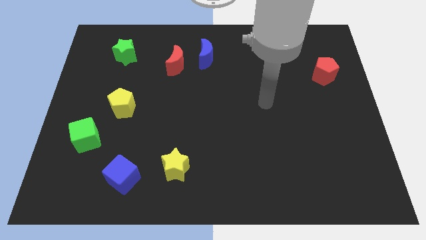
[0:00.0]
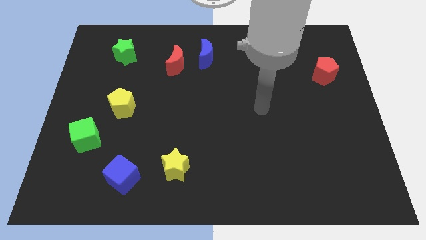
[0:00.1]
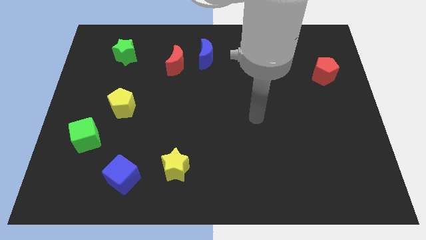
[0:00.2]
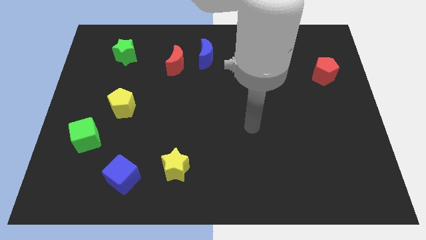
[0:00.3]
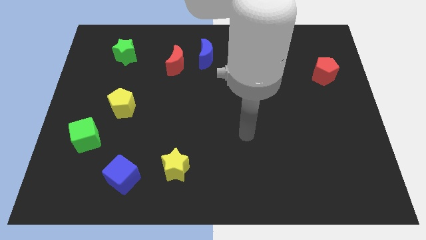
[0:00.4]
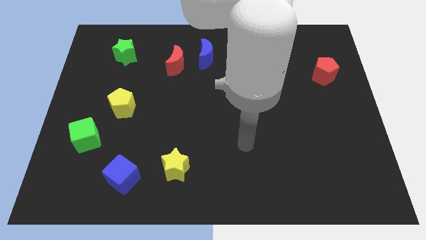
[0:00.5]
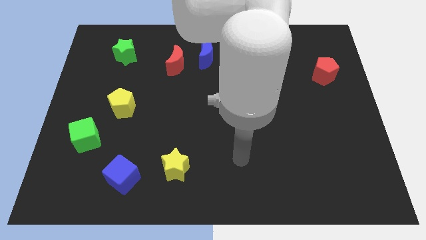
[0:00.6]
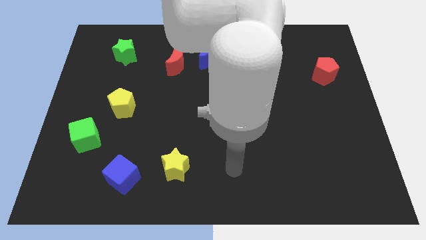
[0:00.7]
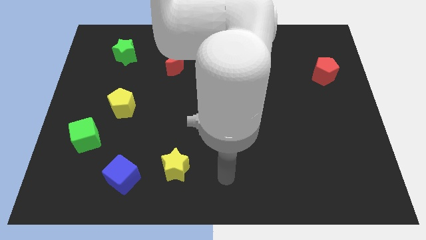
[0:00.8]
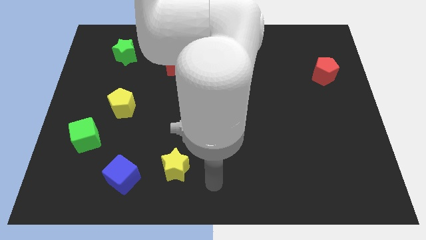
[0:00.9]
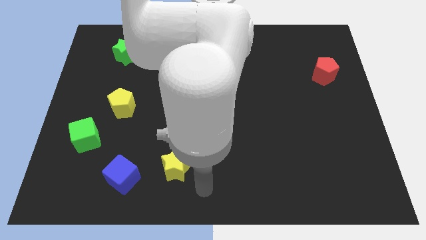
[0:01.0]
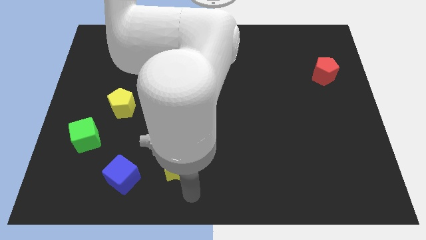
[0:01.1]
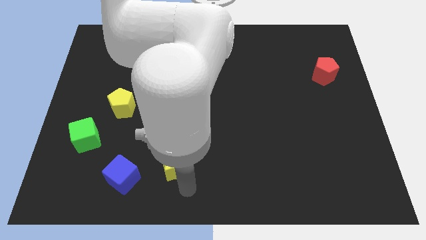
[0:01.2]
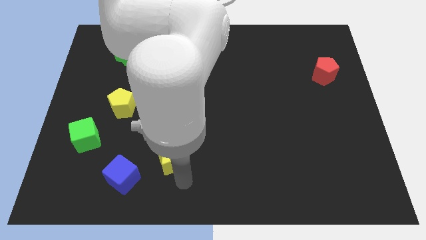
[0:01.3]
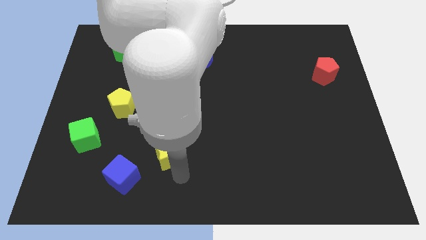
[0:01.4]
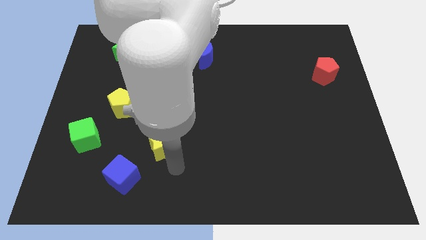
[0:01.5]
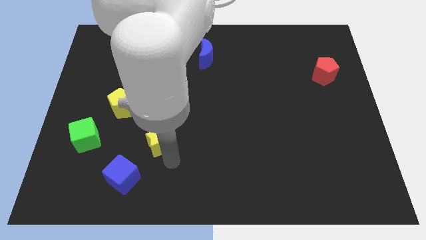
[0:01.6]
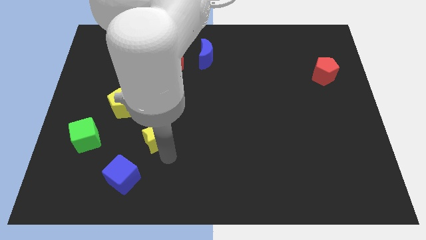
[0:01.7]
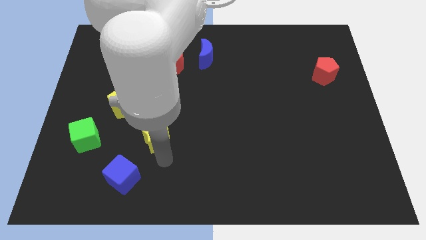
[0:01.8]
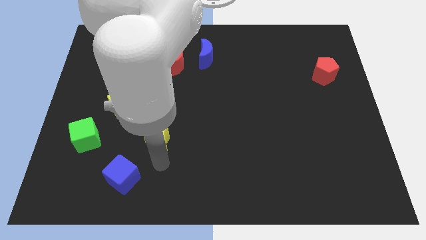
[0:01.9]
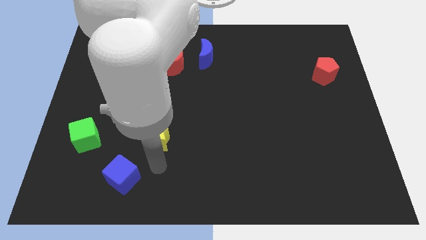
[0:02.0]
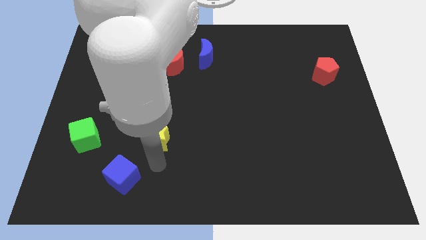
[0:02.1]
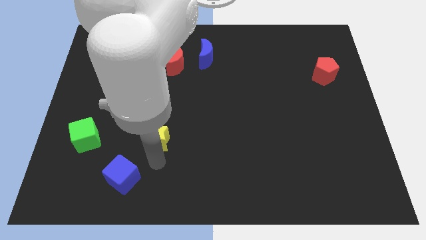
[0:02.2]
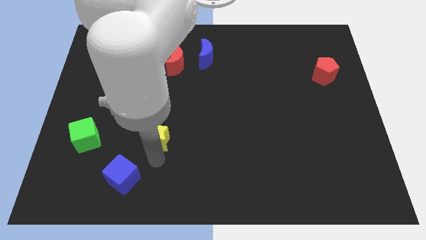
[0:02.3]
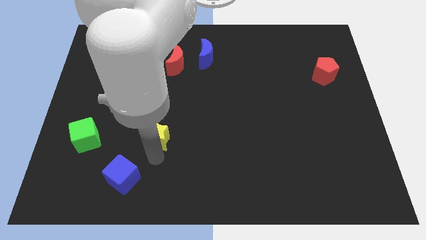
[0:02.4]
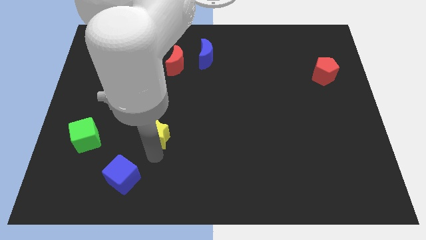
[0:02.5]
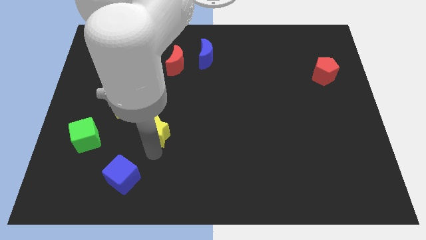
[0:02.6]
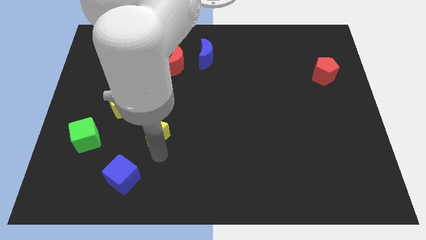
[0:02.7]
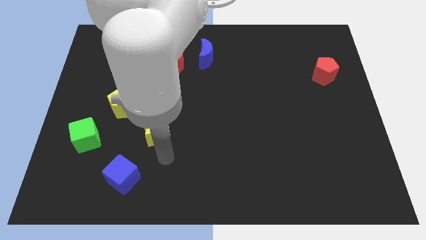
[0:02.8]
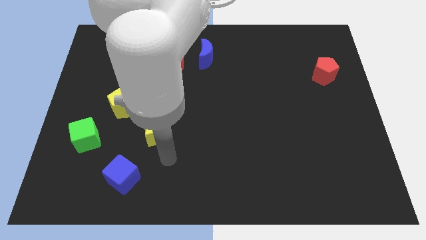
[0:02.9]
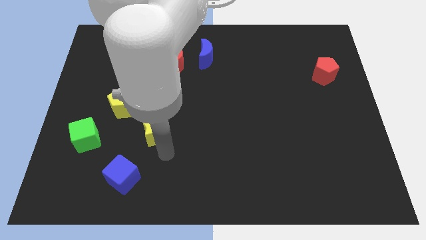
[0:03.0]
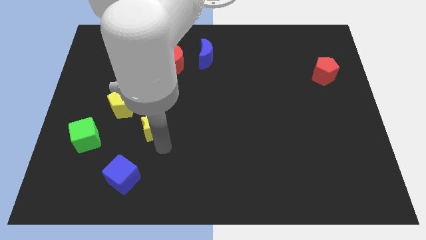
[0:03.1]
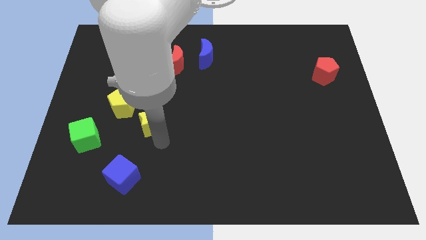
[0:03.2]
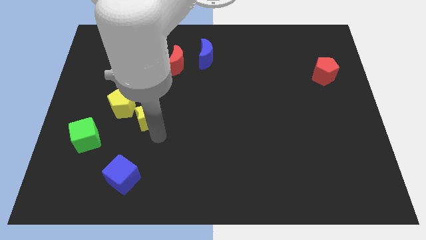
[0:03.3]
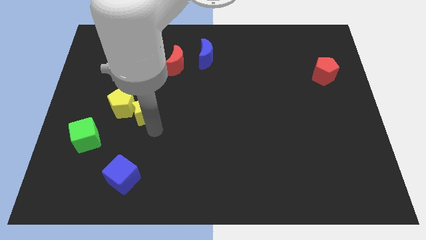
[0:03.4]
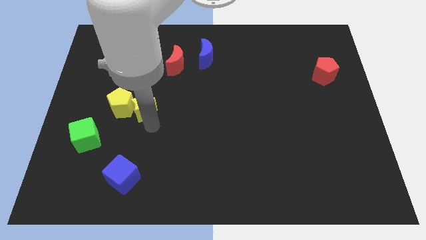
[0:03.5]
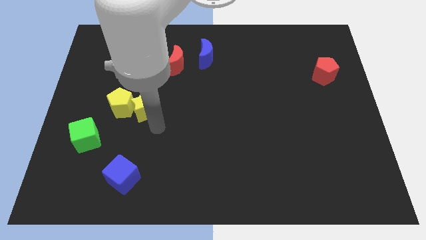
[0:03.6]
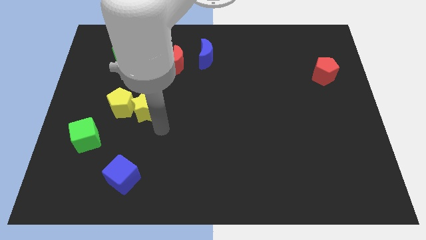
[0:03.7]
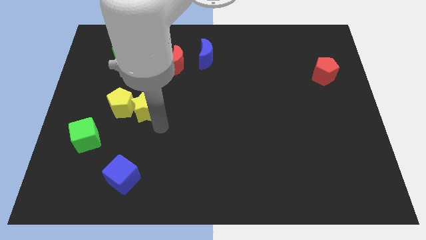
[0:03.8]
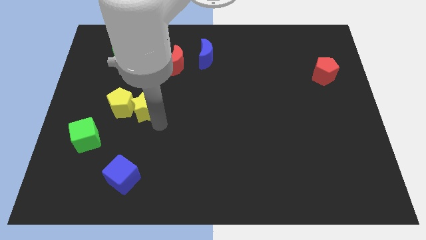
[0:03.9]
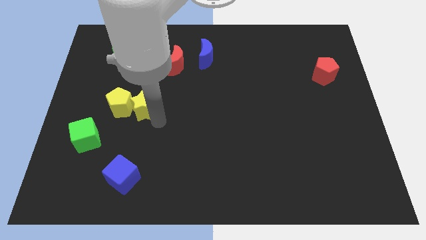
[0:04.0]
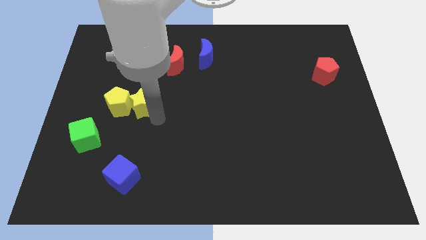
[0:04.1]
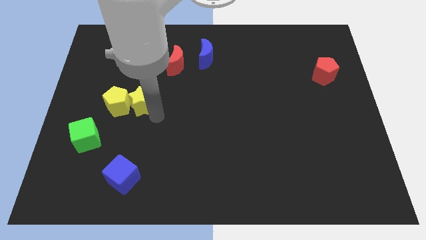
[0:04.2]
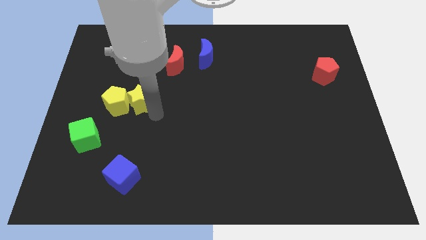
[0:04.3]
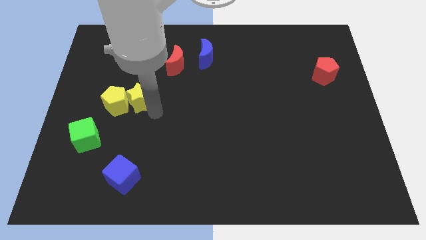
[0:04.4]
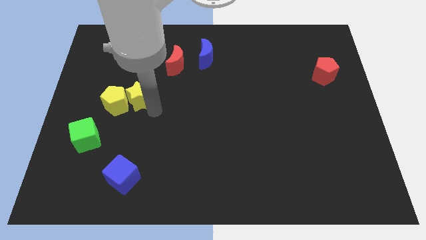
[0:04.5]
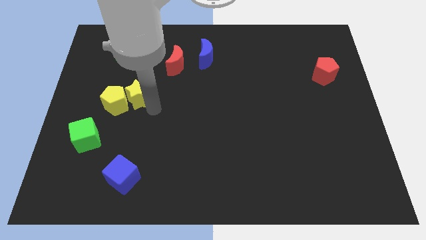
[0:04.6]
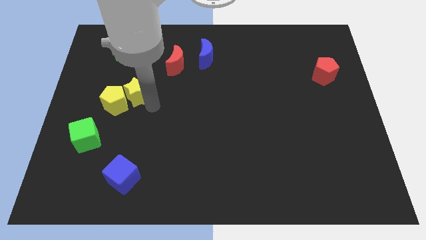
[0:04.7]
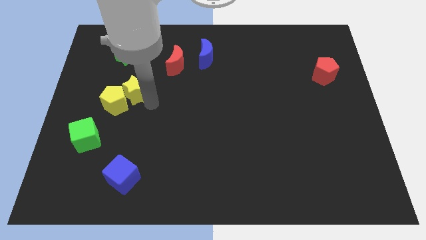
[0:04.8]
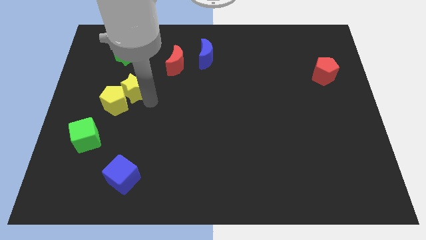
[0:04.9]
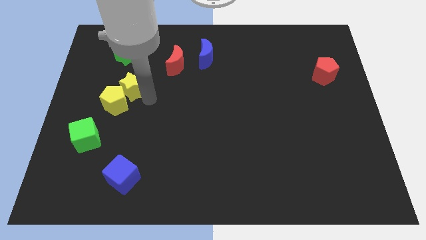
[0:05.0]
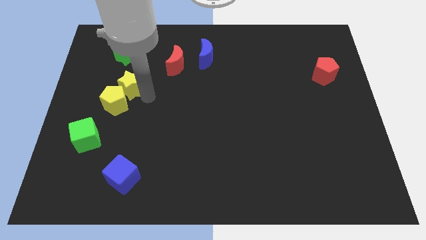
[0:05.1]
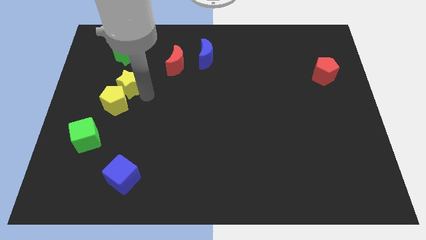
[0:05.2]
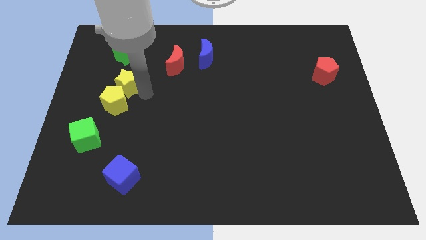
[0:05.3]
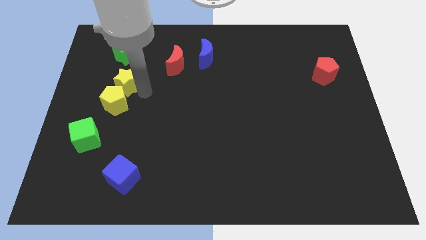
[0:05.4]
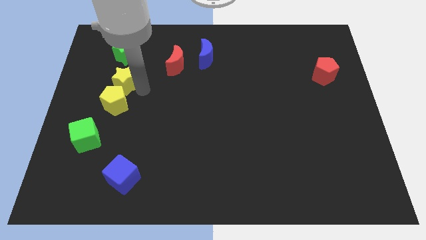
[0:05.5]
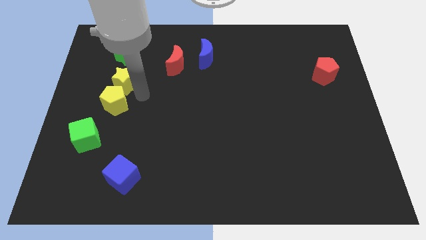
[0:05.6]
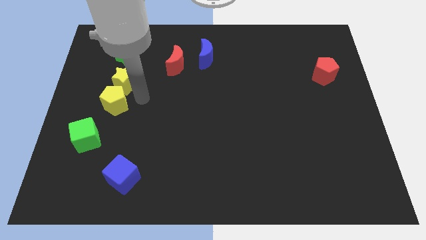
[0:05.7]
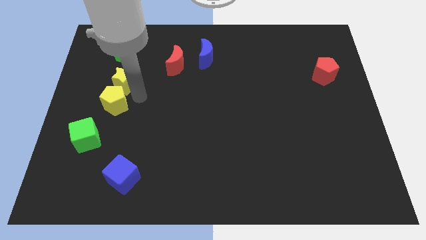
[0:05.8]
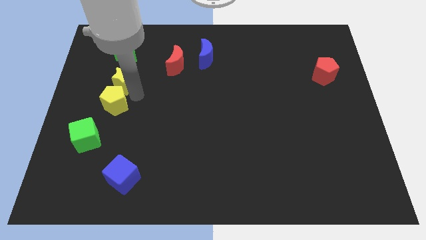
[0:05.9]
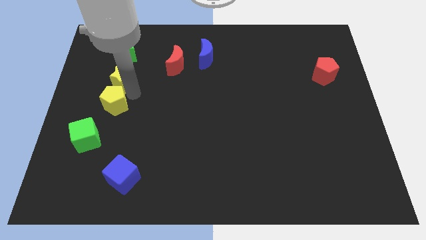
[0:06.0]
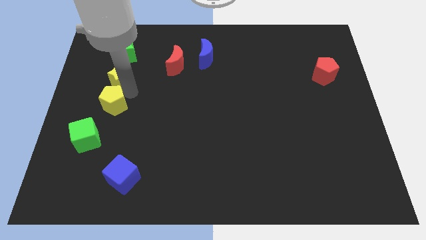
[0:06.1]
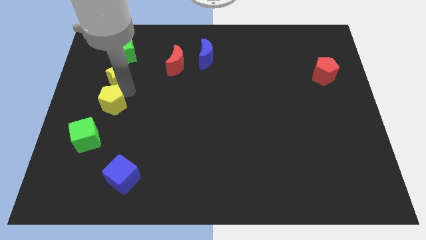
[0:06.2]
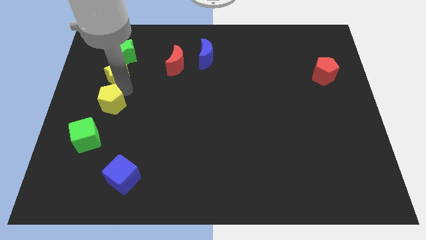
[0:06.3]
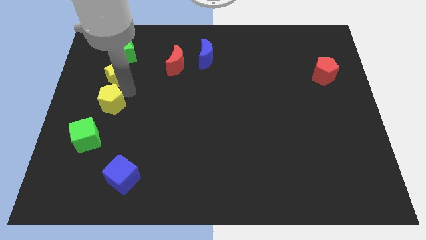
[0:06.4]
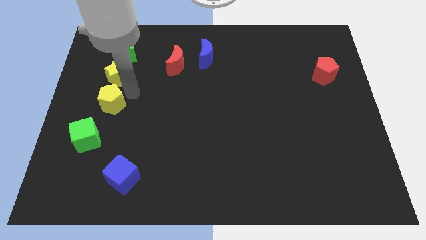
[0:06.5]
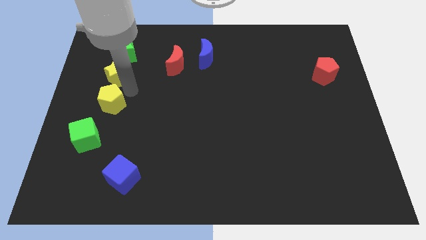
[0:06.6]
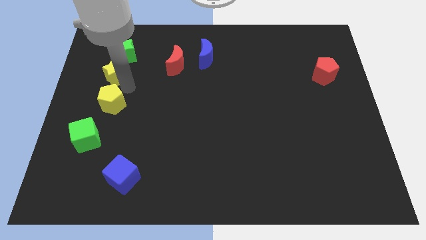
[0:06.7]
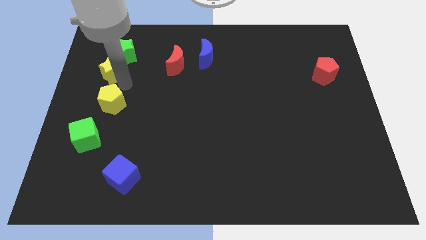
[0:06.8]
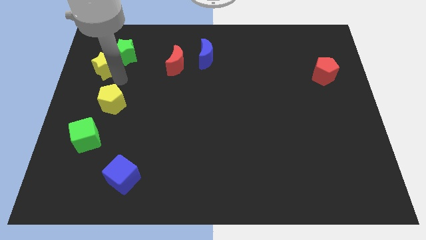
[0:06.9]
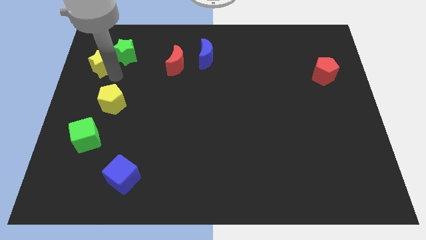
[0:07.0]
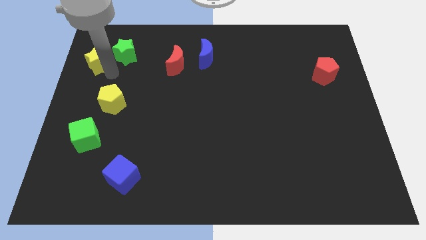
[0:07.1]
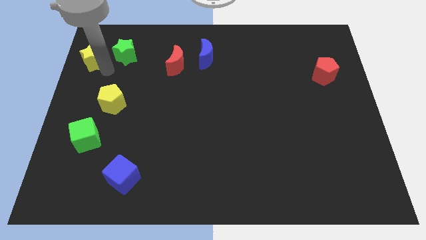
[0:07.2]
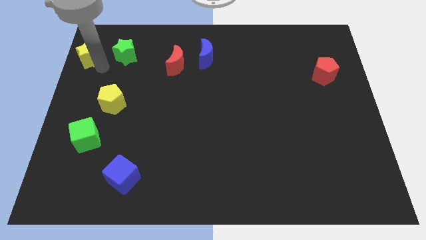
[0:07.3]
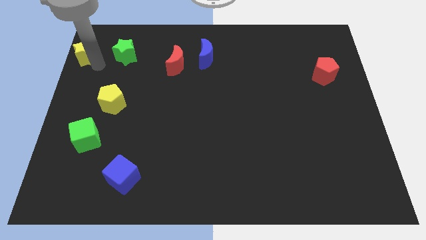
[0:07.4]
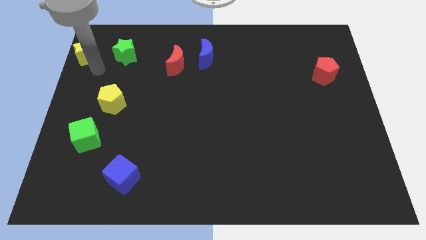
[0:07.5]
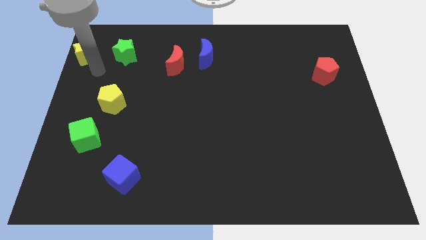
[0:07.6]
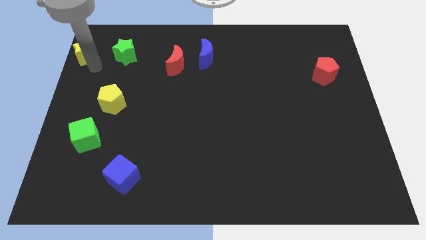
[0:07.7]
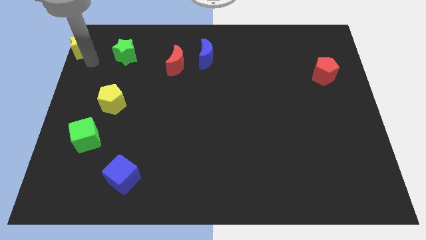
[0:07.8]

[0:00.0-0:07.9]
push the yellow star to the top left of the board
